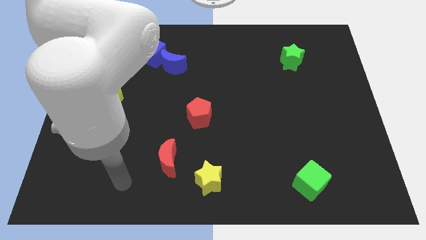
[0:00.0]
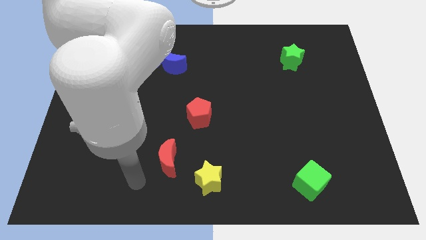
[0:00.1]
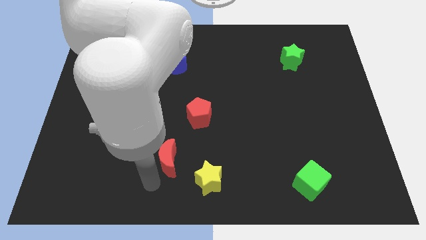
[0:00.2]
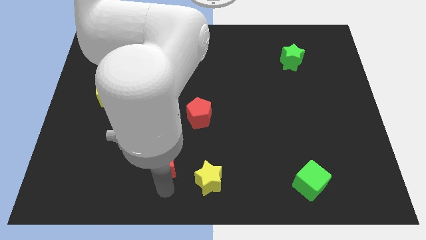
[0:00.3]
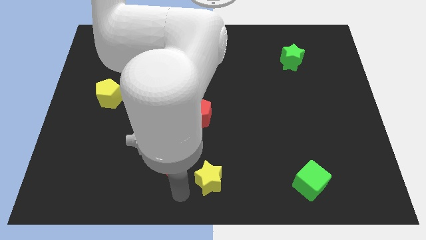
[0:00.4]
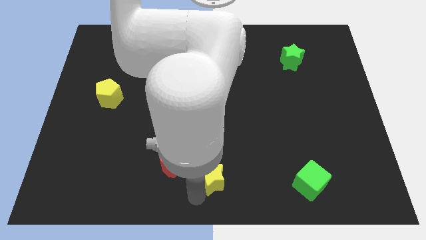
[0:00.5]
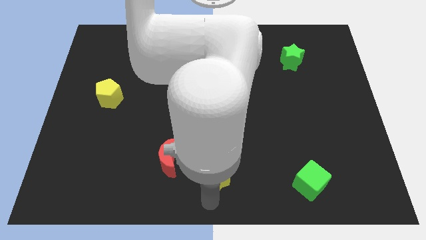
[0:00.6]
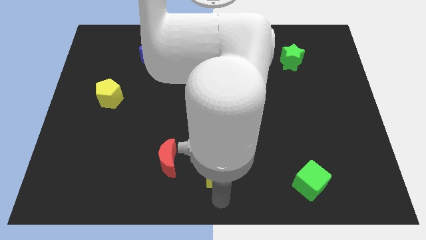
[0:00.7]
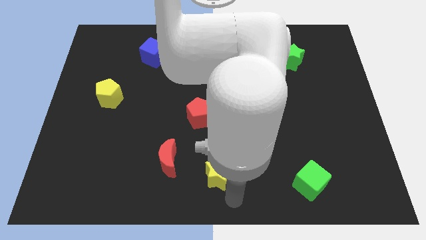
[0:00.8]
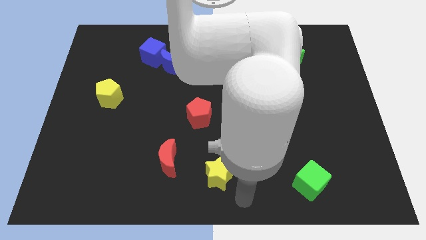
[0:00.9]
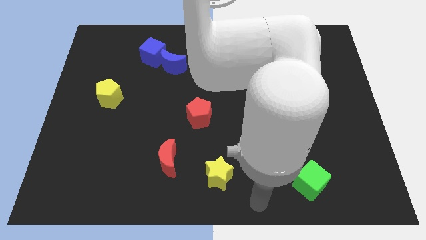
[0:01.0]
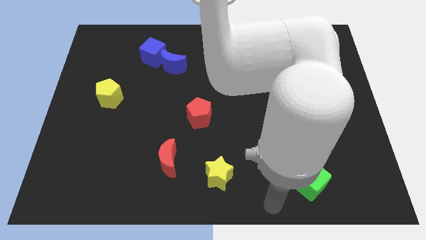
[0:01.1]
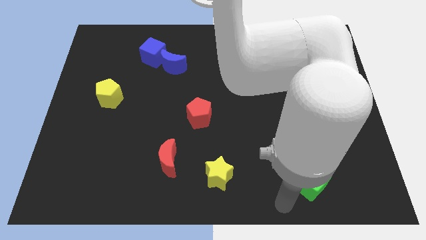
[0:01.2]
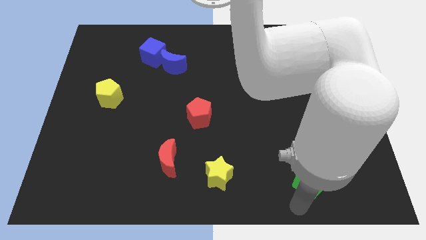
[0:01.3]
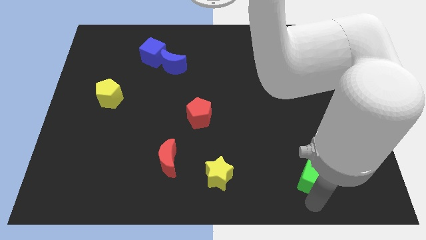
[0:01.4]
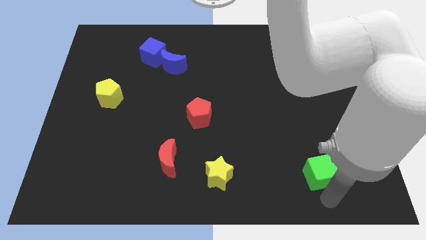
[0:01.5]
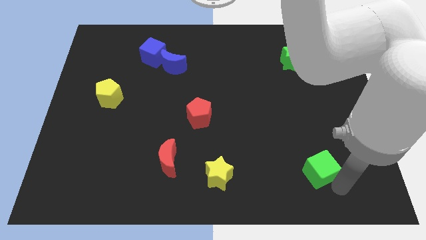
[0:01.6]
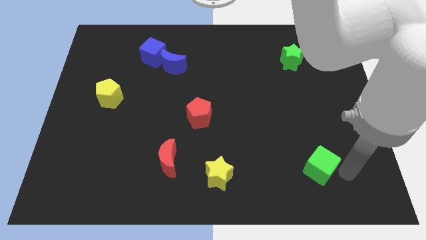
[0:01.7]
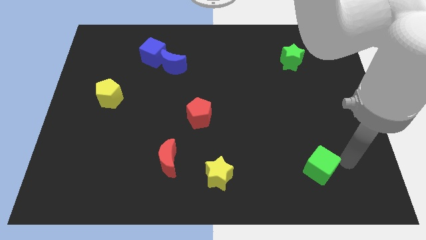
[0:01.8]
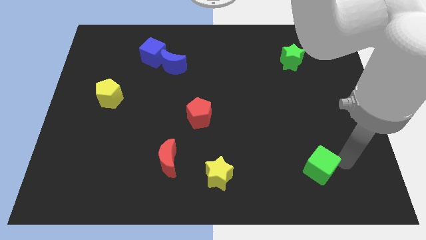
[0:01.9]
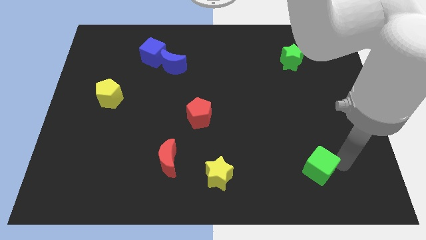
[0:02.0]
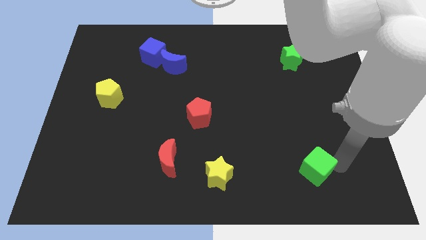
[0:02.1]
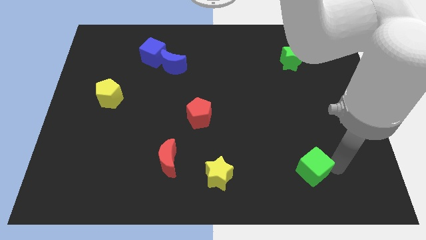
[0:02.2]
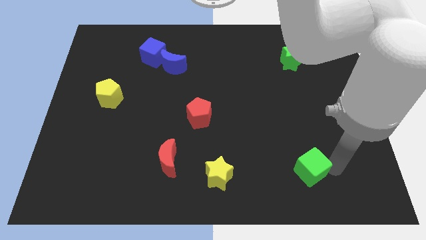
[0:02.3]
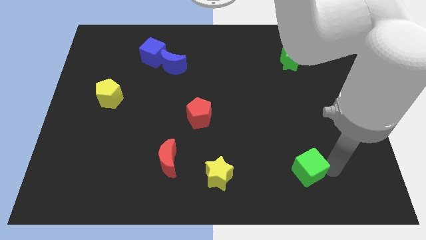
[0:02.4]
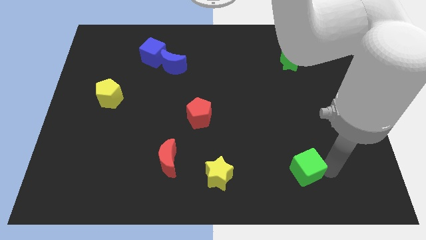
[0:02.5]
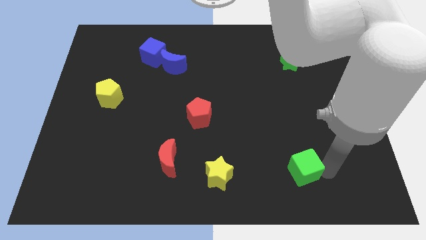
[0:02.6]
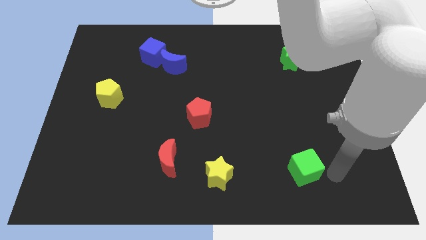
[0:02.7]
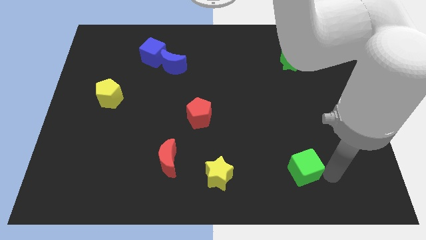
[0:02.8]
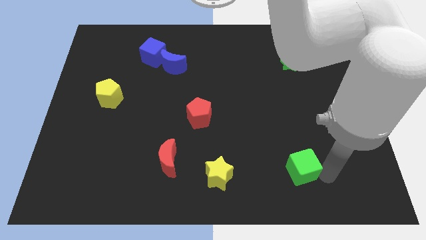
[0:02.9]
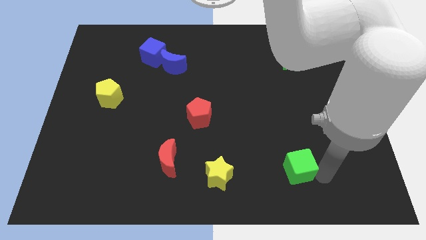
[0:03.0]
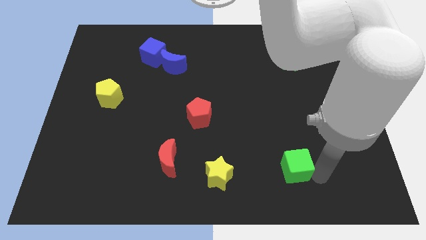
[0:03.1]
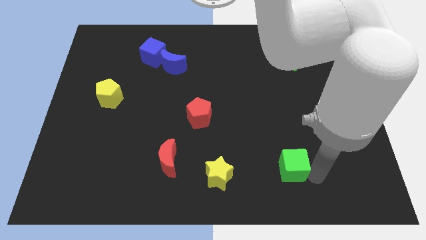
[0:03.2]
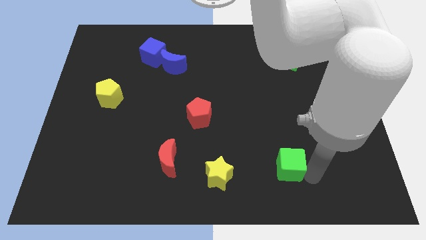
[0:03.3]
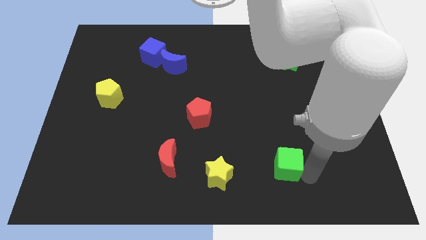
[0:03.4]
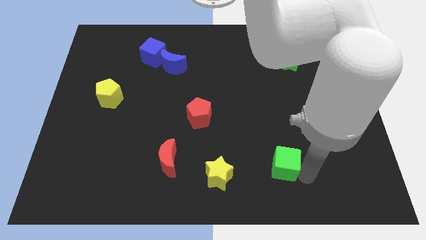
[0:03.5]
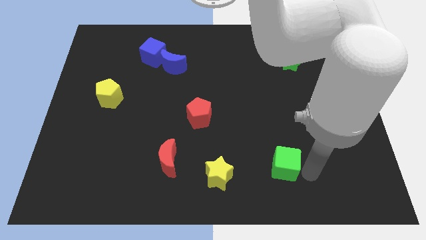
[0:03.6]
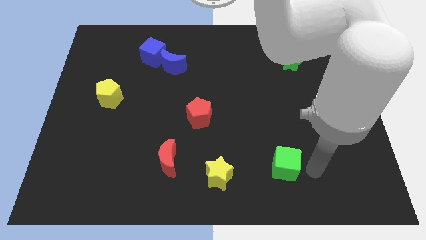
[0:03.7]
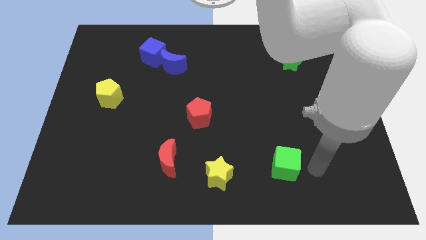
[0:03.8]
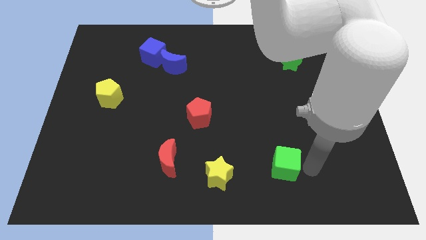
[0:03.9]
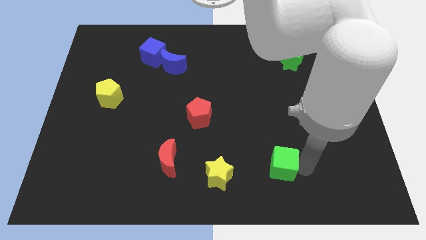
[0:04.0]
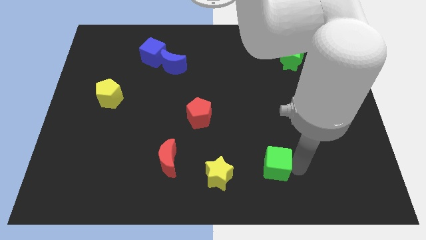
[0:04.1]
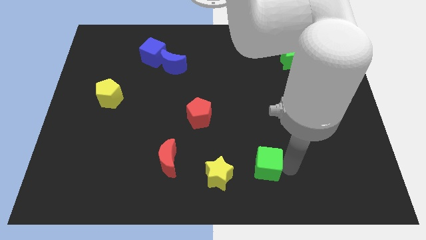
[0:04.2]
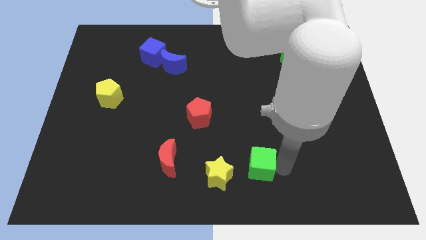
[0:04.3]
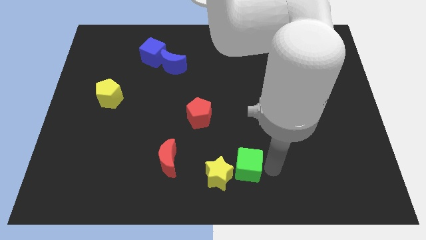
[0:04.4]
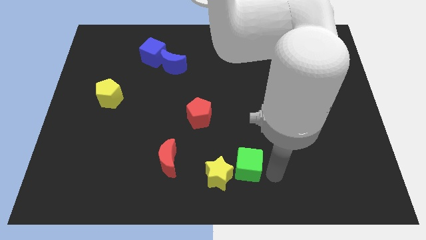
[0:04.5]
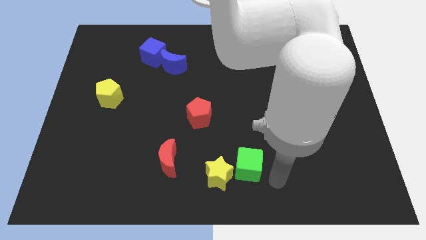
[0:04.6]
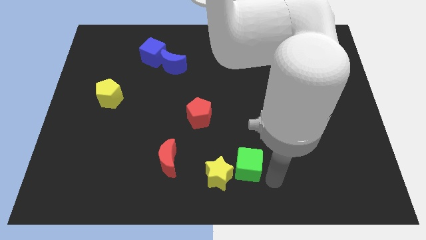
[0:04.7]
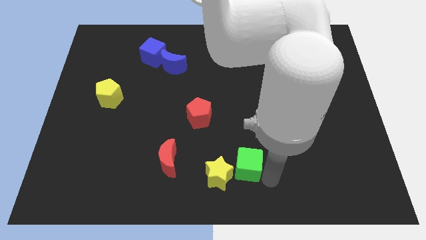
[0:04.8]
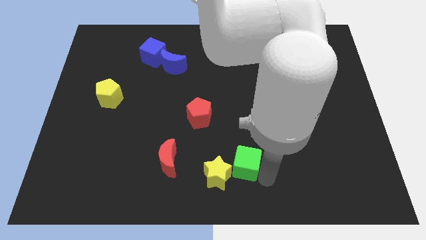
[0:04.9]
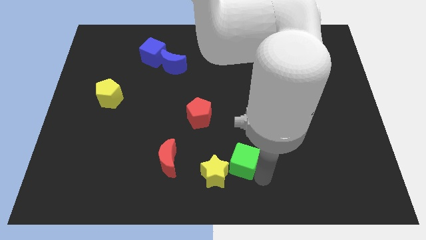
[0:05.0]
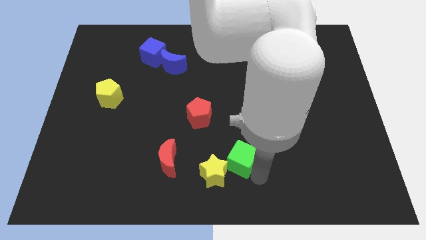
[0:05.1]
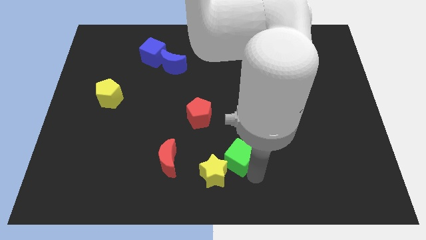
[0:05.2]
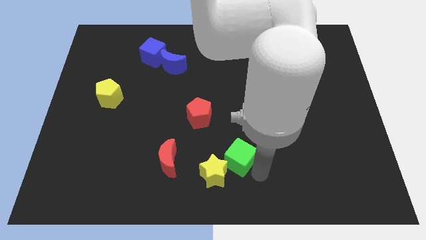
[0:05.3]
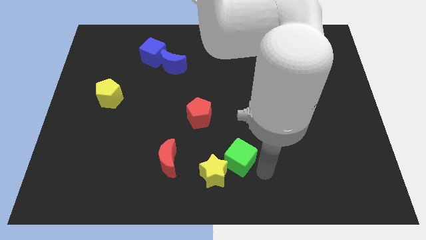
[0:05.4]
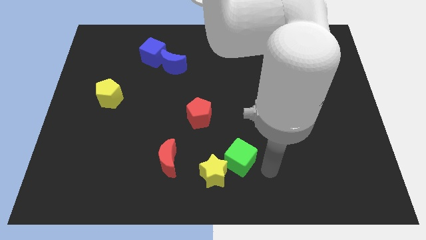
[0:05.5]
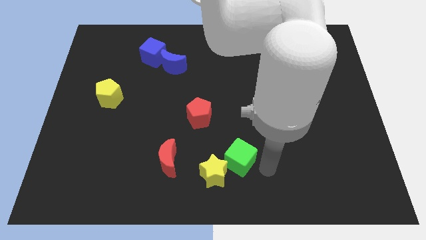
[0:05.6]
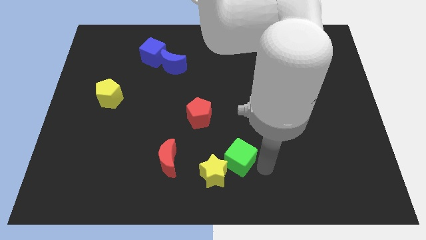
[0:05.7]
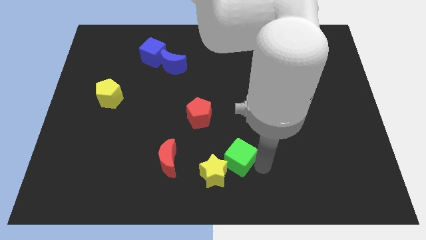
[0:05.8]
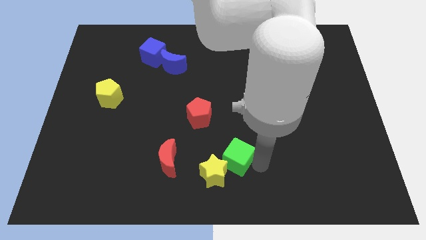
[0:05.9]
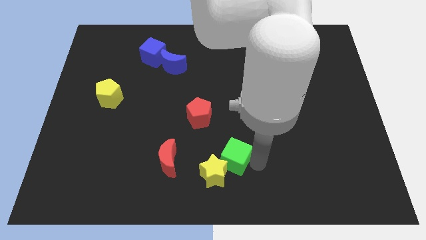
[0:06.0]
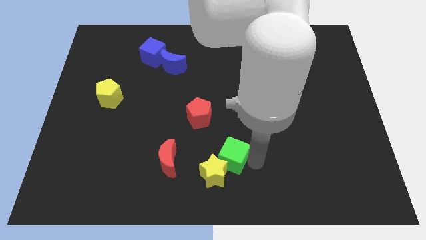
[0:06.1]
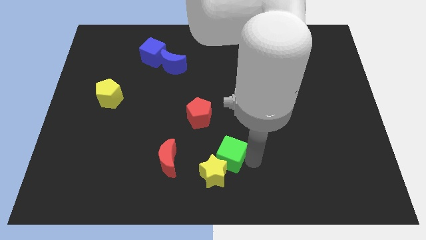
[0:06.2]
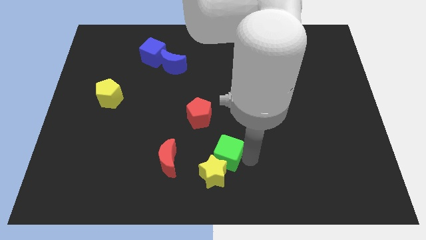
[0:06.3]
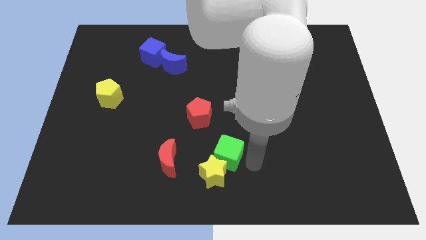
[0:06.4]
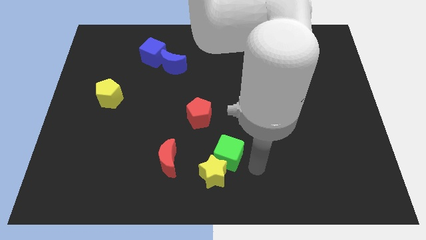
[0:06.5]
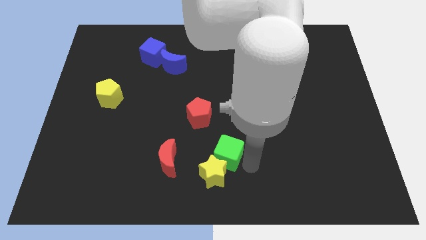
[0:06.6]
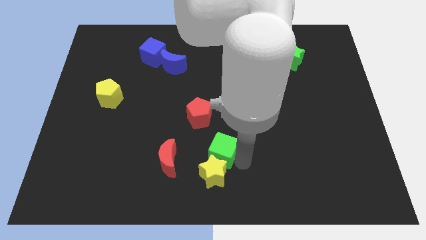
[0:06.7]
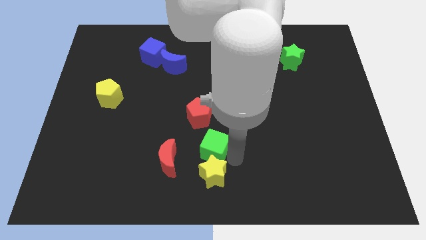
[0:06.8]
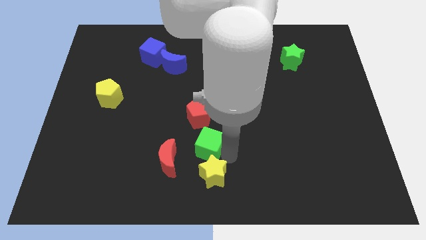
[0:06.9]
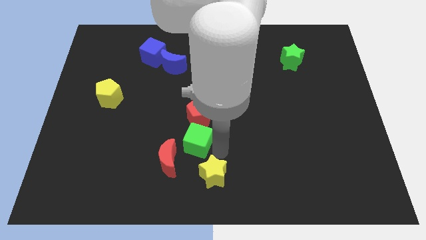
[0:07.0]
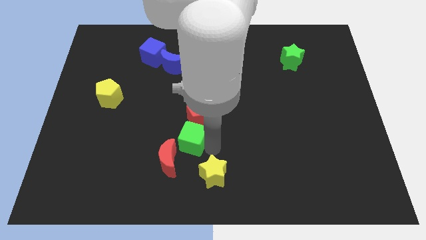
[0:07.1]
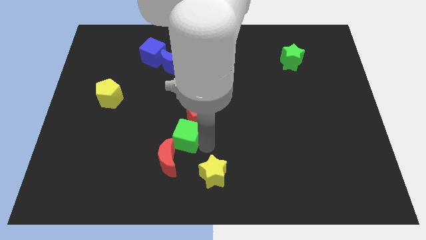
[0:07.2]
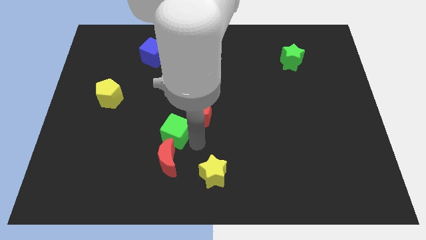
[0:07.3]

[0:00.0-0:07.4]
put the green cube to the left side of the red pentagon
